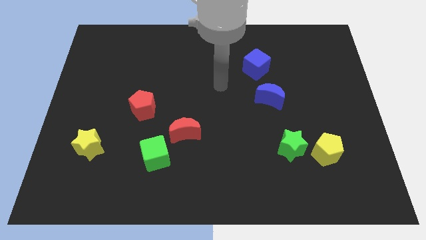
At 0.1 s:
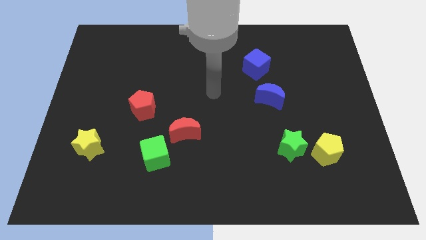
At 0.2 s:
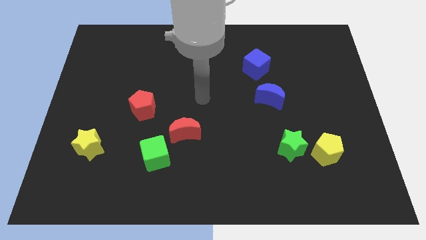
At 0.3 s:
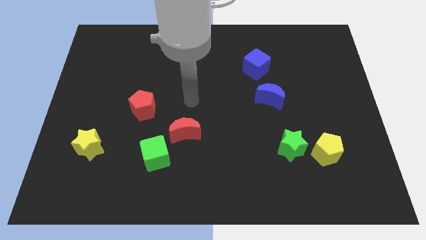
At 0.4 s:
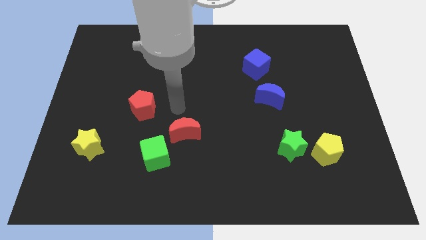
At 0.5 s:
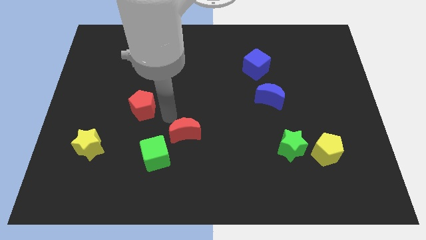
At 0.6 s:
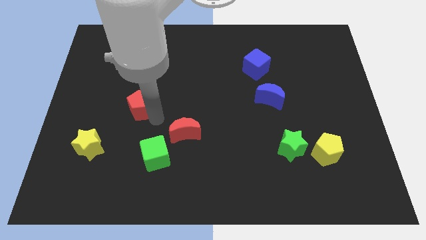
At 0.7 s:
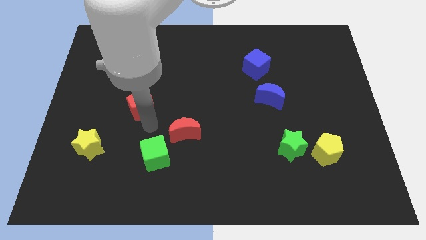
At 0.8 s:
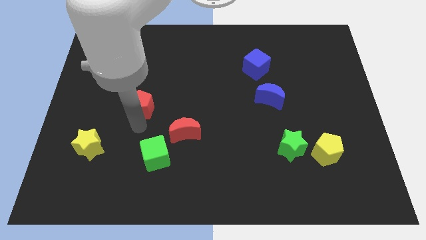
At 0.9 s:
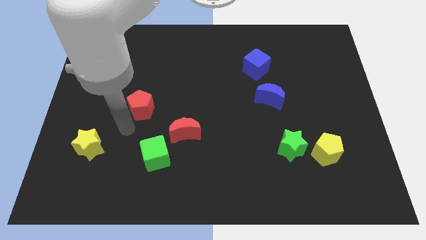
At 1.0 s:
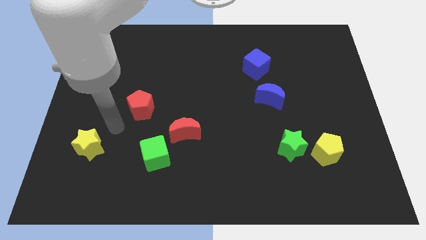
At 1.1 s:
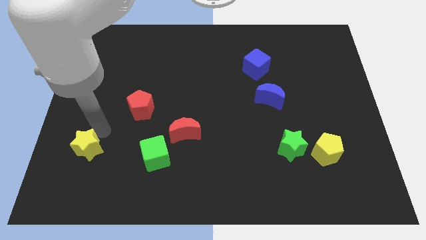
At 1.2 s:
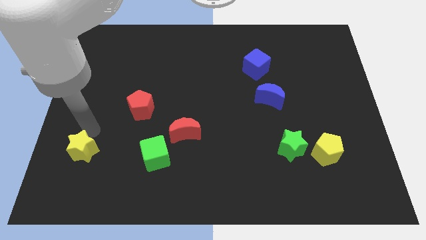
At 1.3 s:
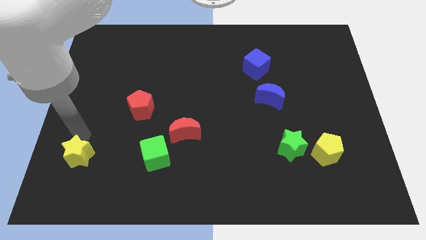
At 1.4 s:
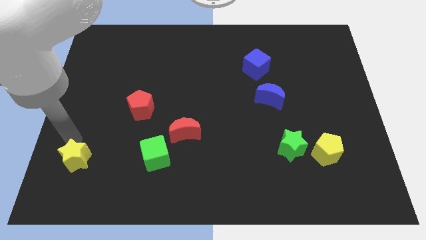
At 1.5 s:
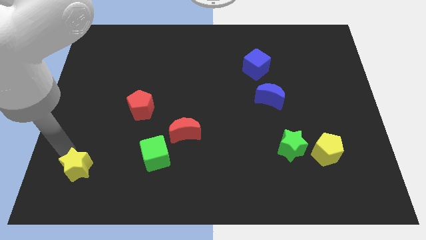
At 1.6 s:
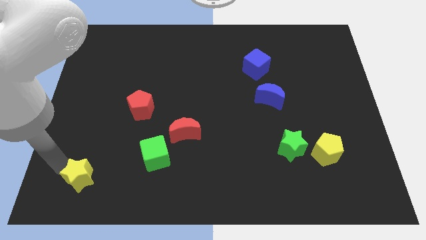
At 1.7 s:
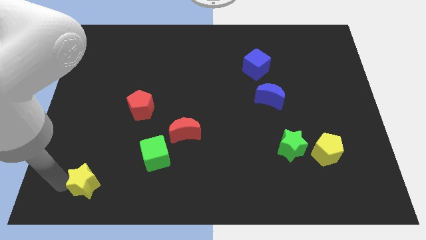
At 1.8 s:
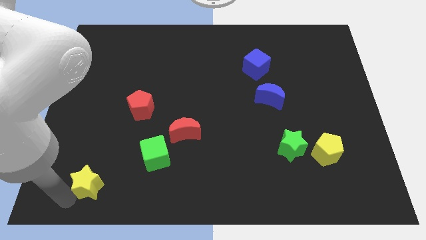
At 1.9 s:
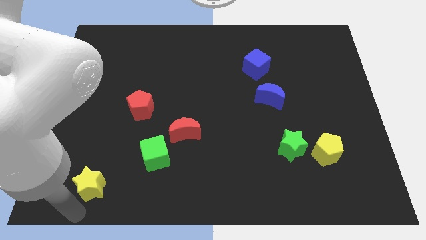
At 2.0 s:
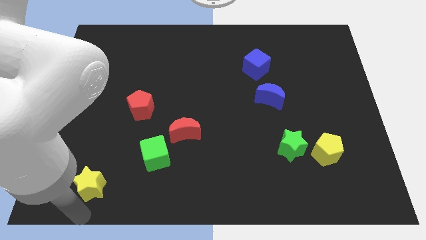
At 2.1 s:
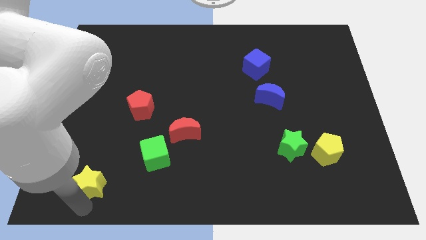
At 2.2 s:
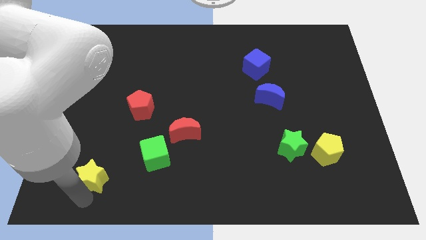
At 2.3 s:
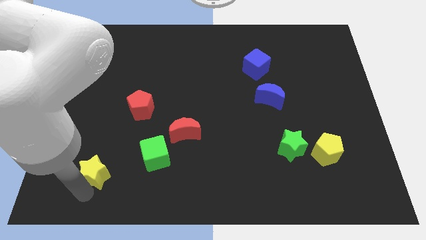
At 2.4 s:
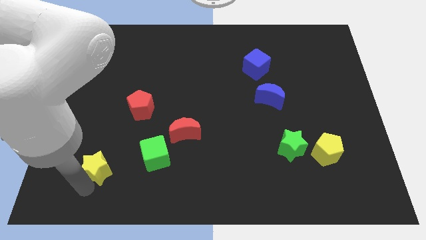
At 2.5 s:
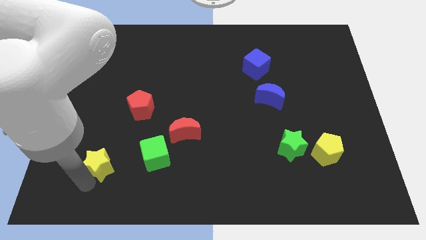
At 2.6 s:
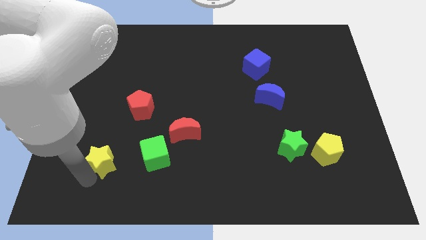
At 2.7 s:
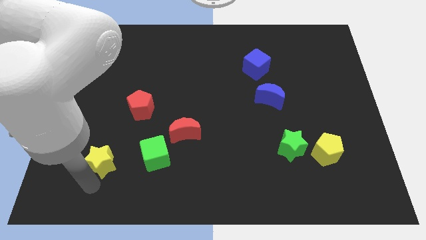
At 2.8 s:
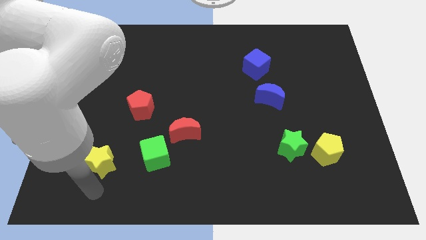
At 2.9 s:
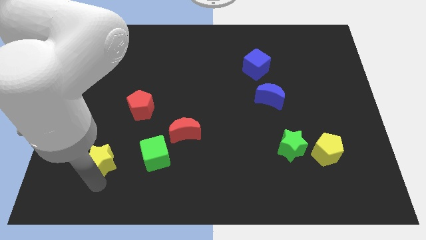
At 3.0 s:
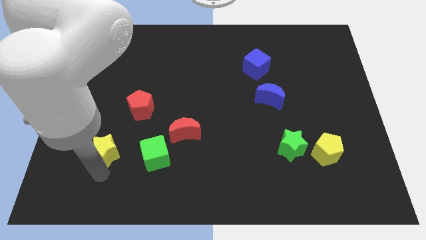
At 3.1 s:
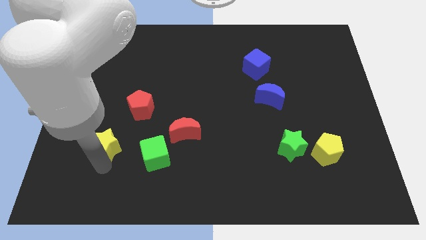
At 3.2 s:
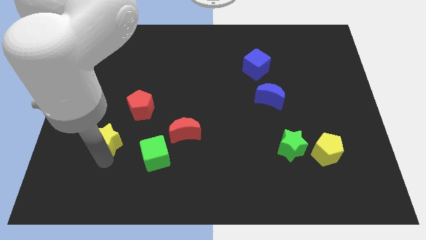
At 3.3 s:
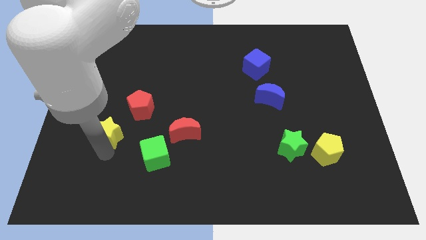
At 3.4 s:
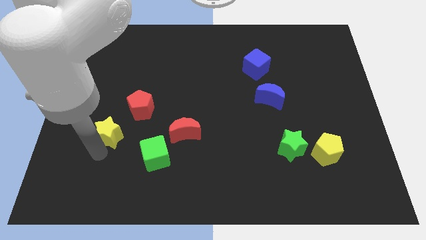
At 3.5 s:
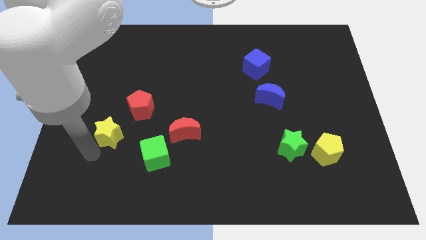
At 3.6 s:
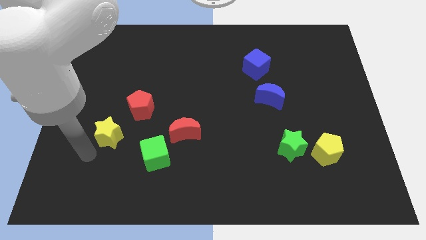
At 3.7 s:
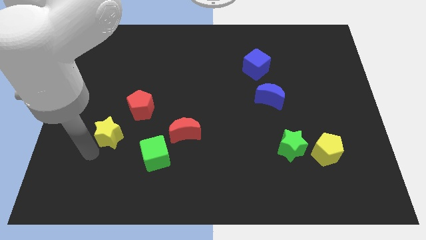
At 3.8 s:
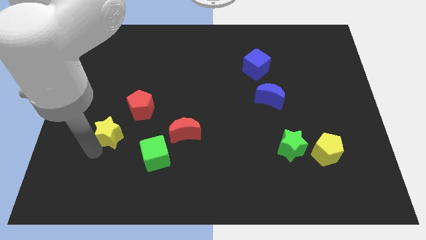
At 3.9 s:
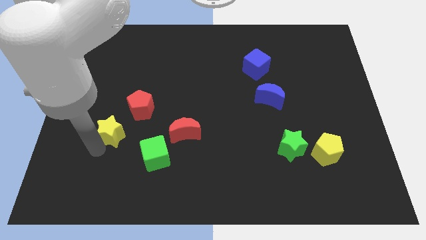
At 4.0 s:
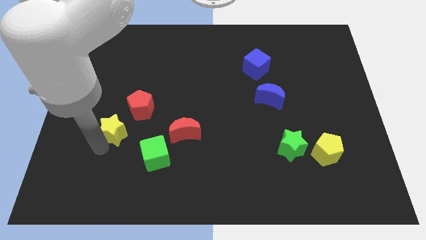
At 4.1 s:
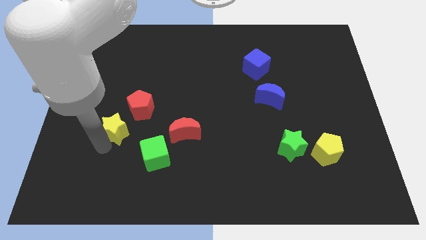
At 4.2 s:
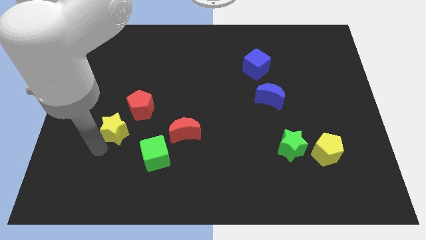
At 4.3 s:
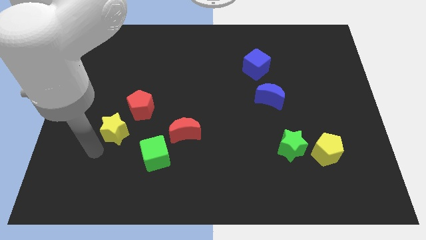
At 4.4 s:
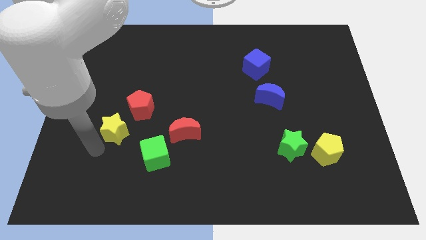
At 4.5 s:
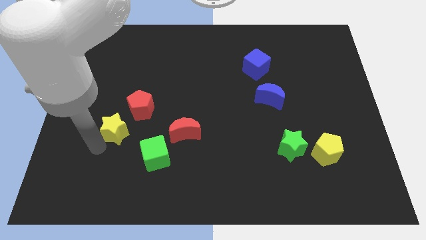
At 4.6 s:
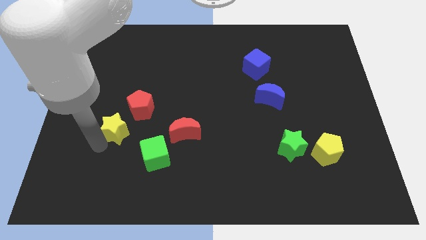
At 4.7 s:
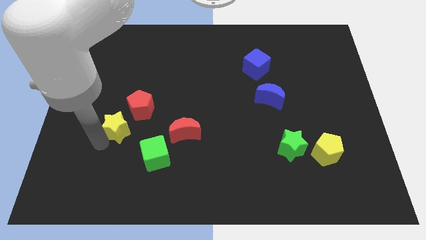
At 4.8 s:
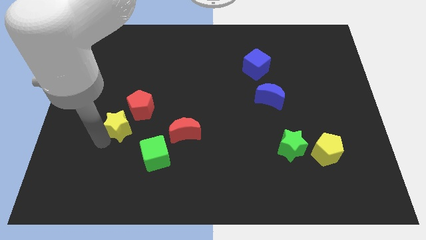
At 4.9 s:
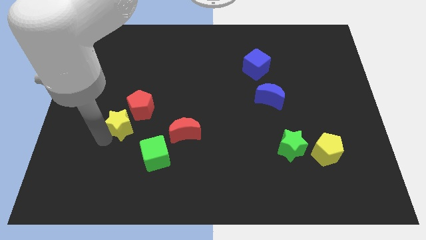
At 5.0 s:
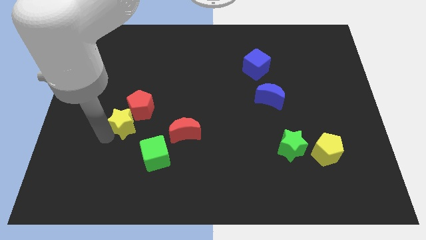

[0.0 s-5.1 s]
slide the yellow star towards the red pentagon

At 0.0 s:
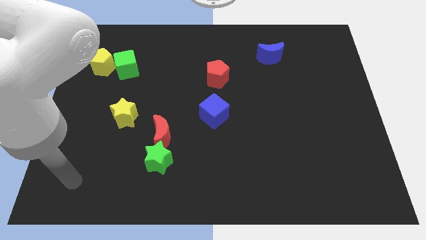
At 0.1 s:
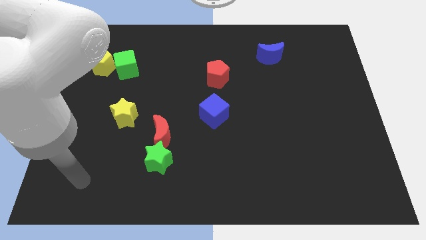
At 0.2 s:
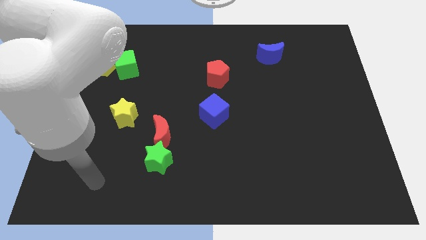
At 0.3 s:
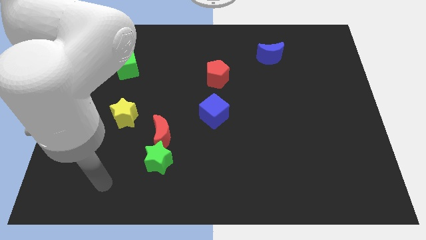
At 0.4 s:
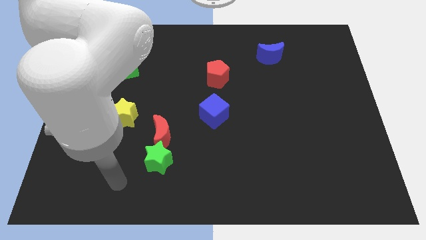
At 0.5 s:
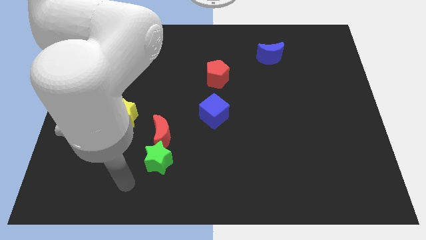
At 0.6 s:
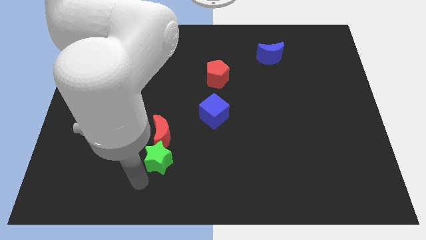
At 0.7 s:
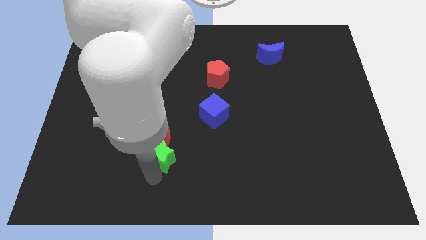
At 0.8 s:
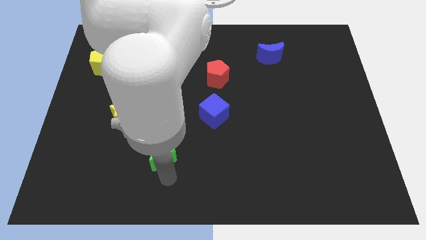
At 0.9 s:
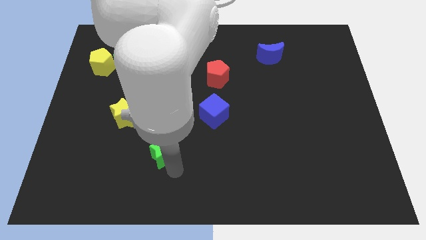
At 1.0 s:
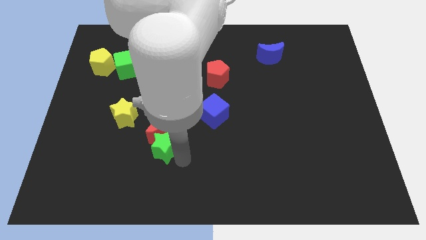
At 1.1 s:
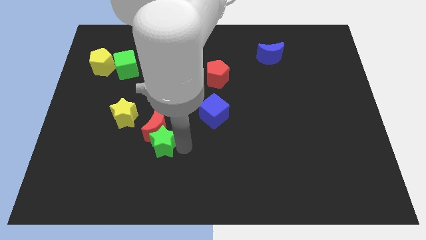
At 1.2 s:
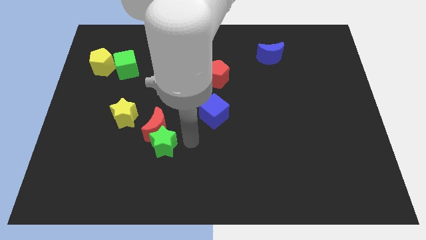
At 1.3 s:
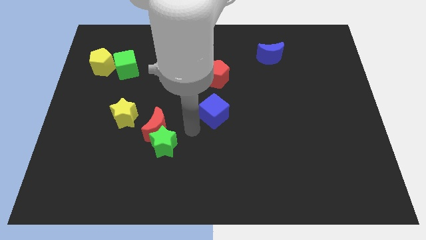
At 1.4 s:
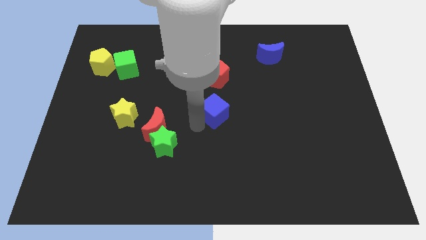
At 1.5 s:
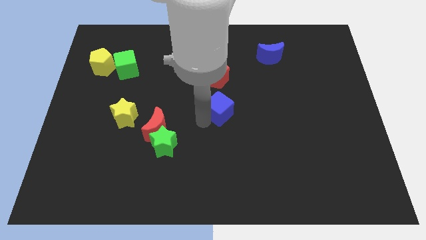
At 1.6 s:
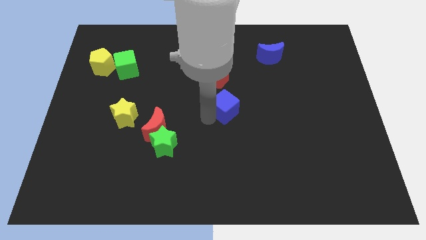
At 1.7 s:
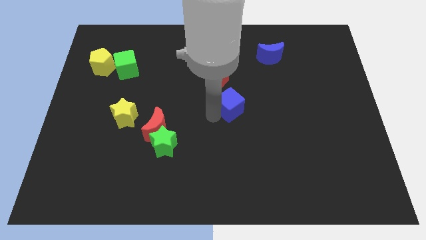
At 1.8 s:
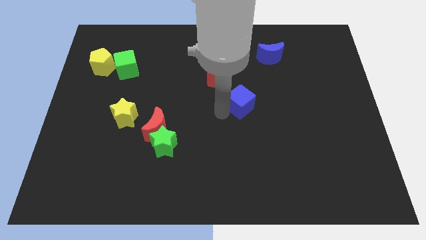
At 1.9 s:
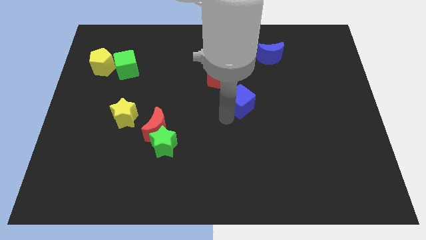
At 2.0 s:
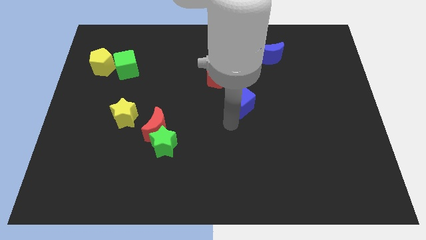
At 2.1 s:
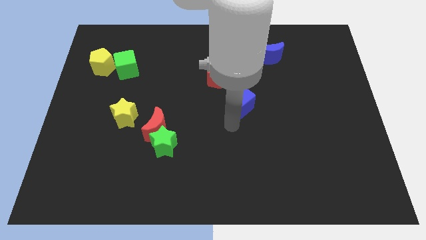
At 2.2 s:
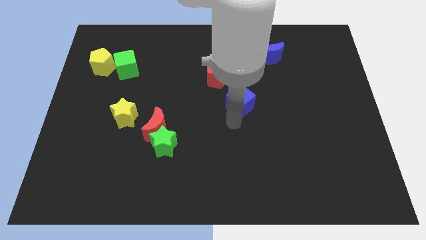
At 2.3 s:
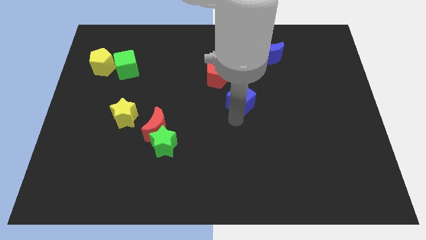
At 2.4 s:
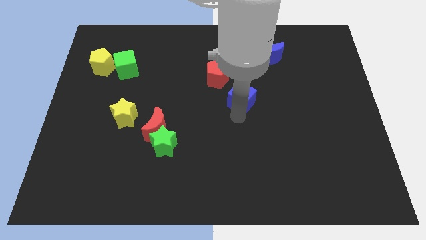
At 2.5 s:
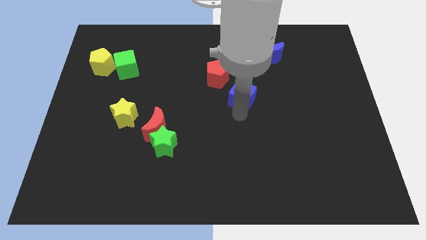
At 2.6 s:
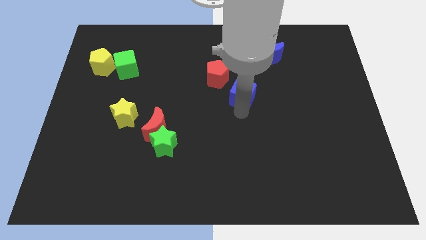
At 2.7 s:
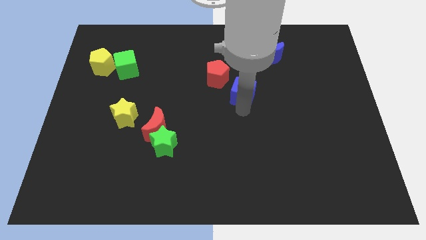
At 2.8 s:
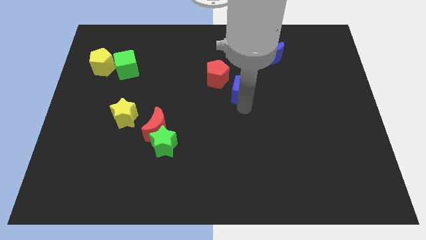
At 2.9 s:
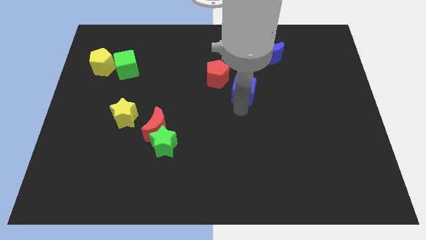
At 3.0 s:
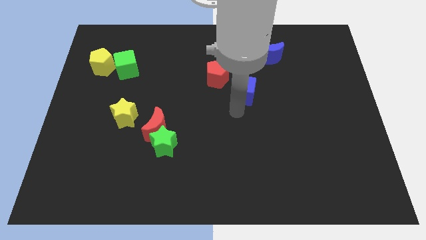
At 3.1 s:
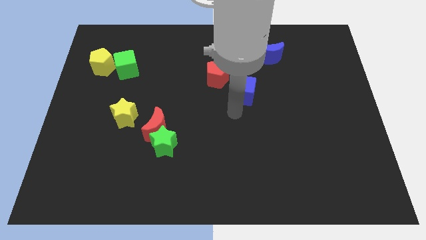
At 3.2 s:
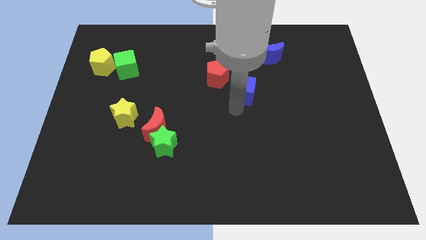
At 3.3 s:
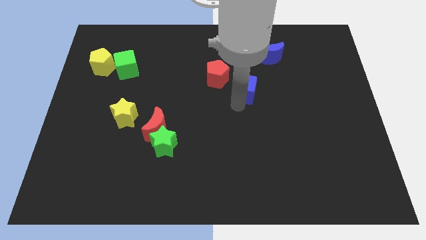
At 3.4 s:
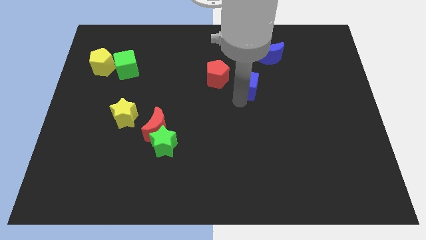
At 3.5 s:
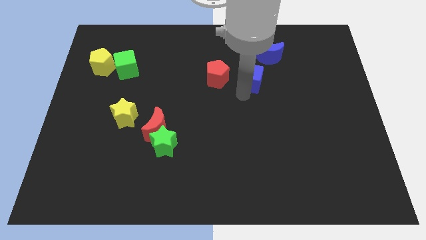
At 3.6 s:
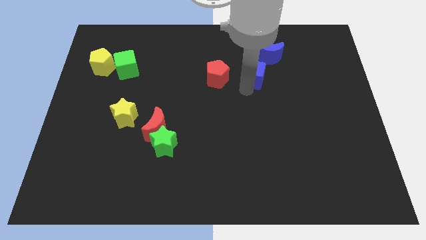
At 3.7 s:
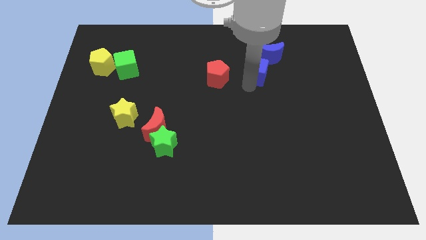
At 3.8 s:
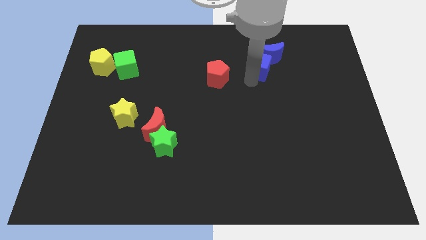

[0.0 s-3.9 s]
push the blue cube towards the blue moon
